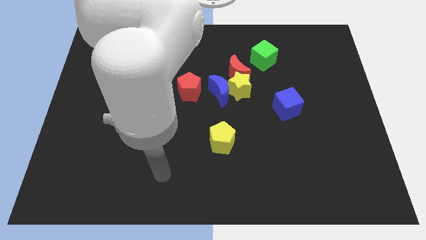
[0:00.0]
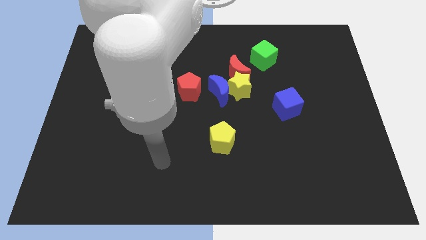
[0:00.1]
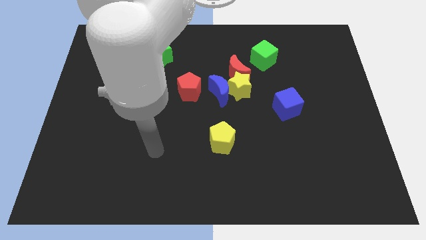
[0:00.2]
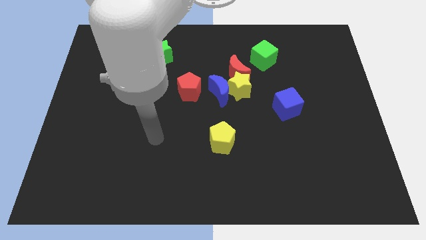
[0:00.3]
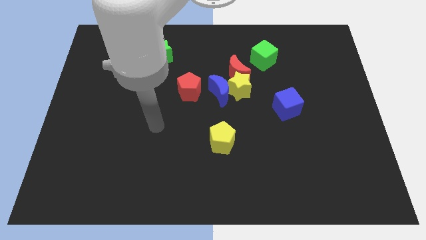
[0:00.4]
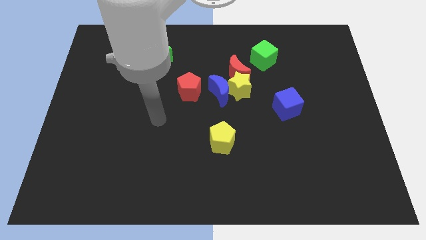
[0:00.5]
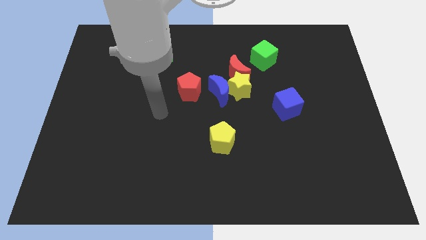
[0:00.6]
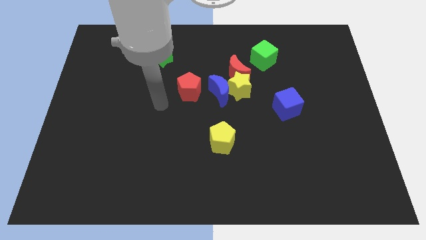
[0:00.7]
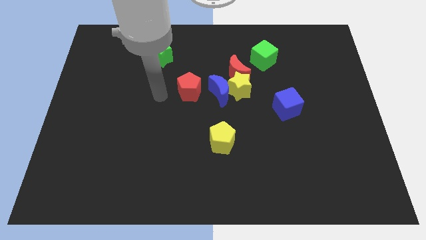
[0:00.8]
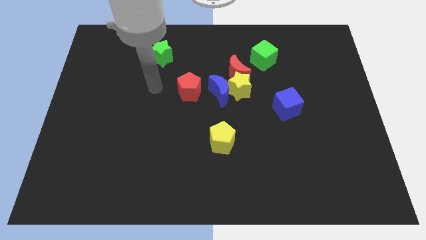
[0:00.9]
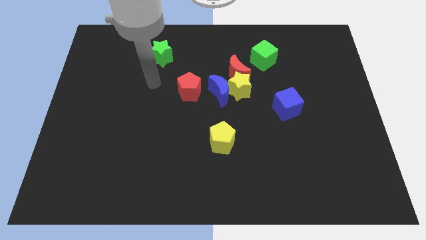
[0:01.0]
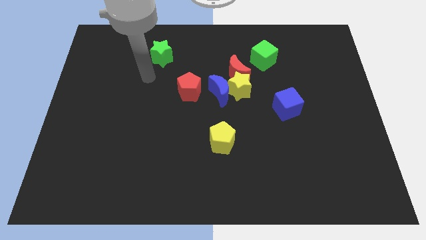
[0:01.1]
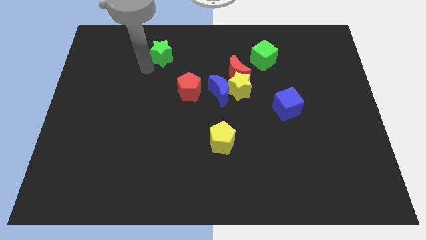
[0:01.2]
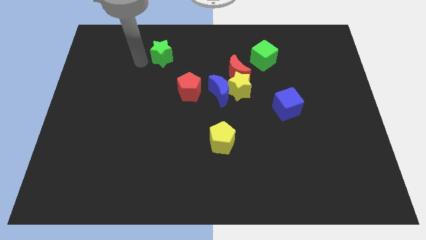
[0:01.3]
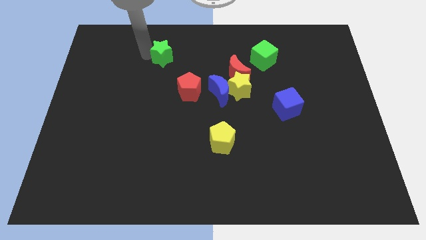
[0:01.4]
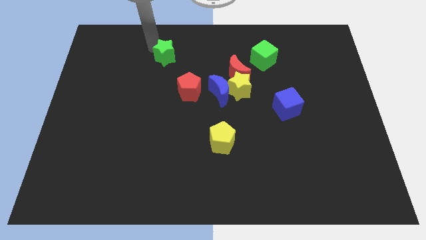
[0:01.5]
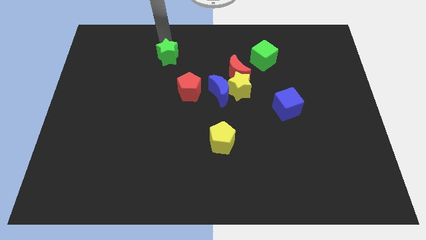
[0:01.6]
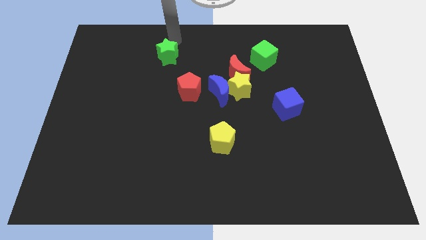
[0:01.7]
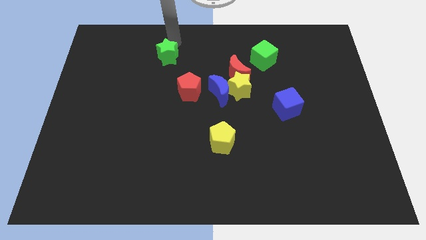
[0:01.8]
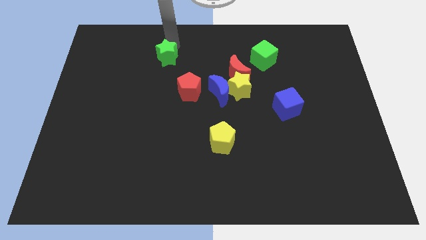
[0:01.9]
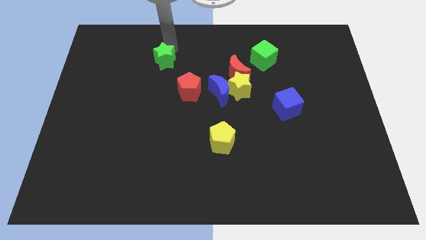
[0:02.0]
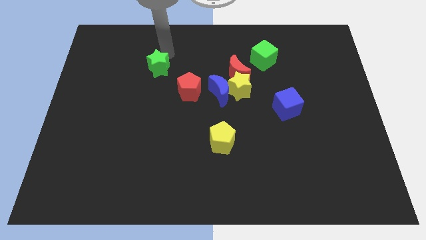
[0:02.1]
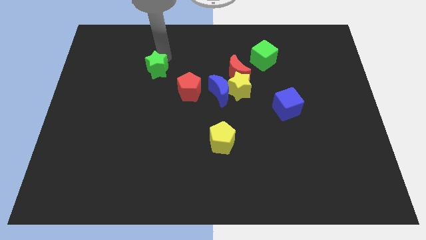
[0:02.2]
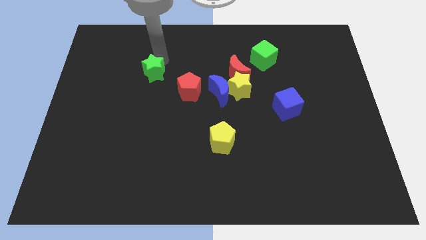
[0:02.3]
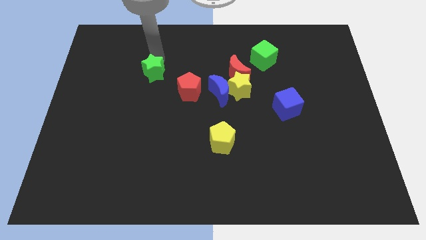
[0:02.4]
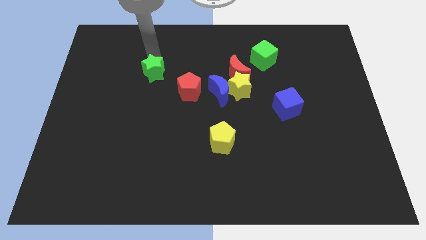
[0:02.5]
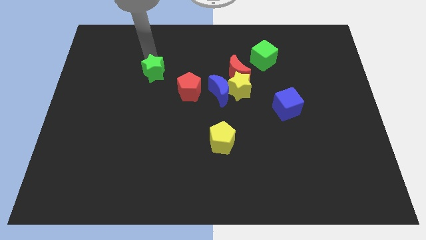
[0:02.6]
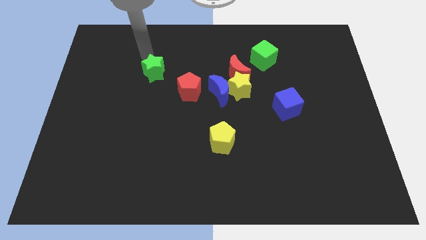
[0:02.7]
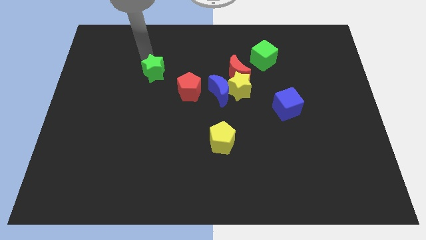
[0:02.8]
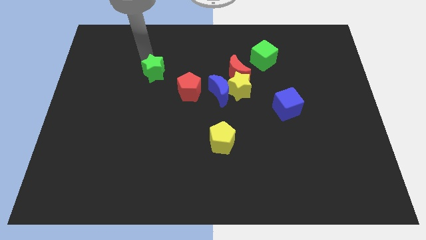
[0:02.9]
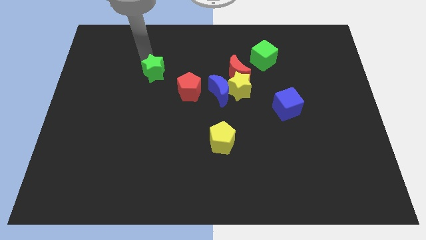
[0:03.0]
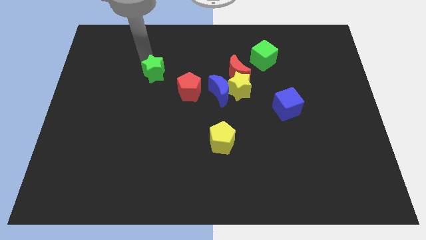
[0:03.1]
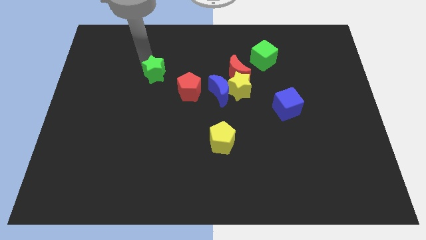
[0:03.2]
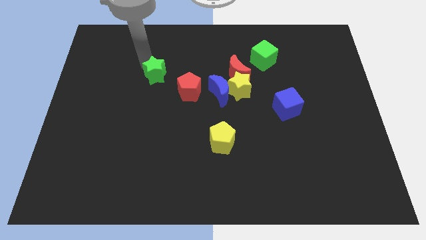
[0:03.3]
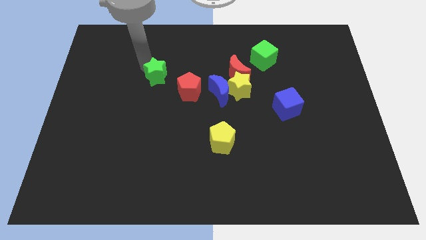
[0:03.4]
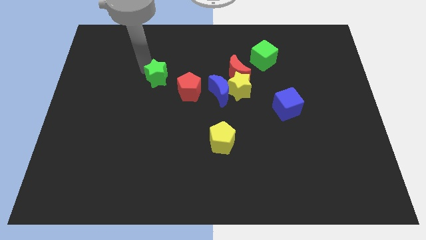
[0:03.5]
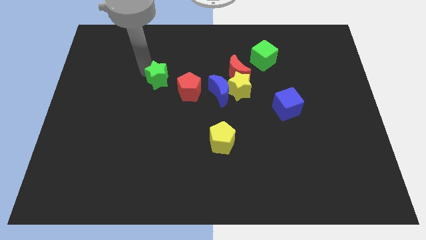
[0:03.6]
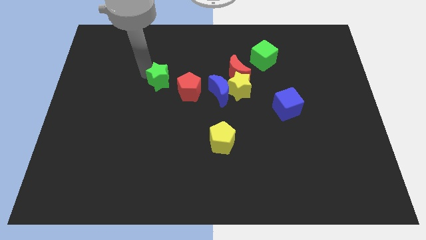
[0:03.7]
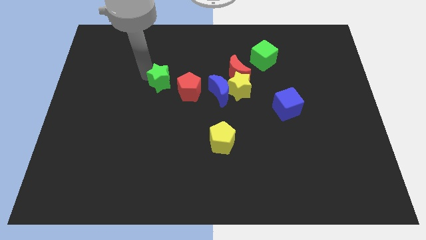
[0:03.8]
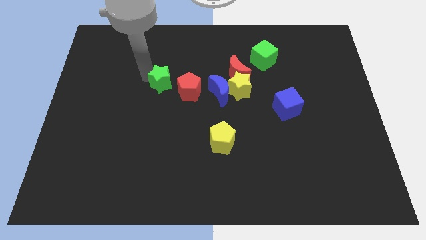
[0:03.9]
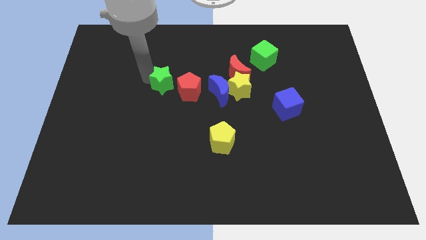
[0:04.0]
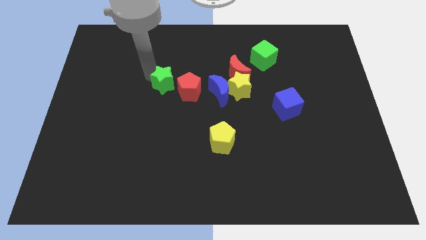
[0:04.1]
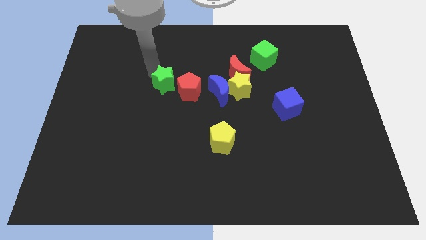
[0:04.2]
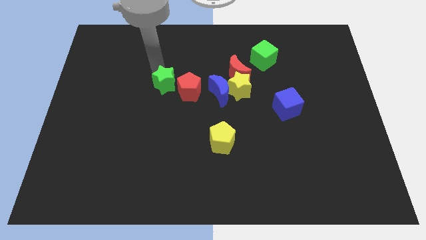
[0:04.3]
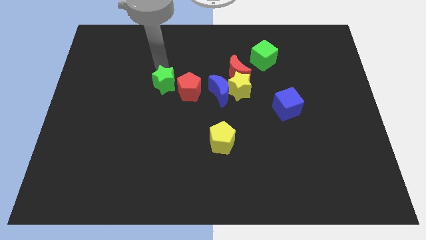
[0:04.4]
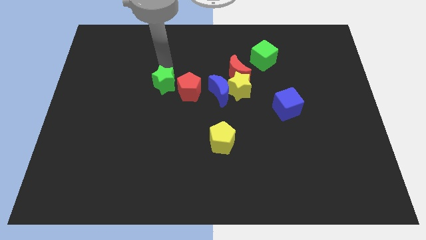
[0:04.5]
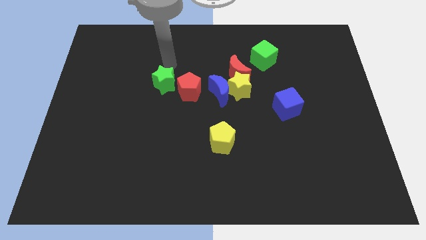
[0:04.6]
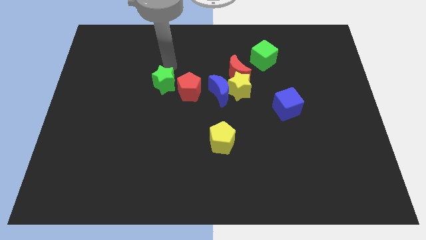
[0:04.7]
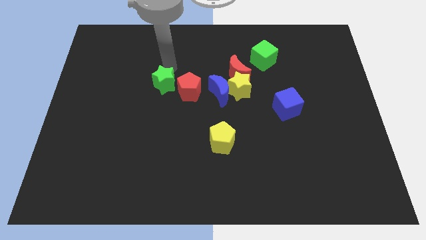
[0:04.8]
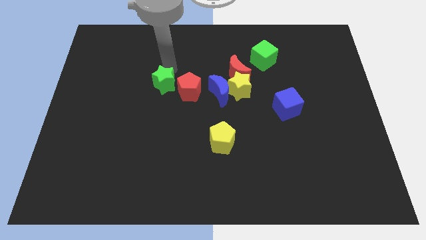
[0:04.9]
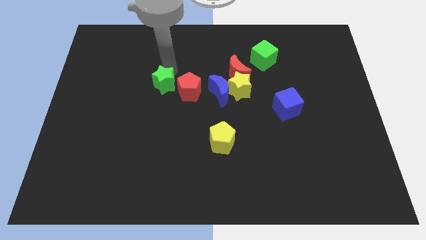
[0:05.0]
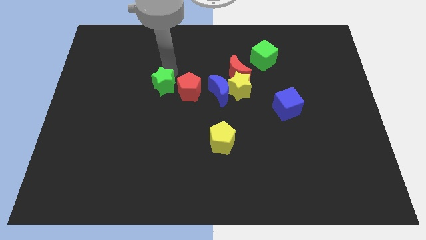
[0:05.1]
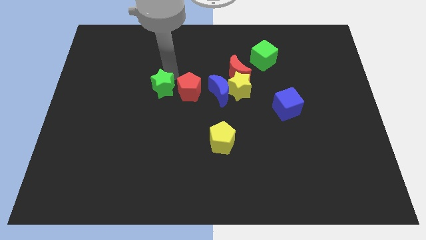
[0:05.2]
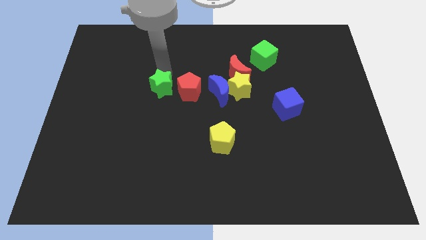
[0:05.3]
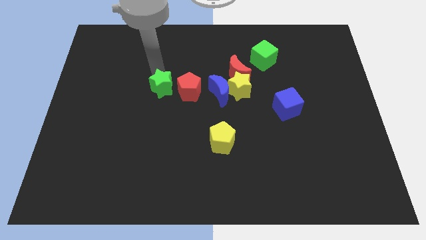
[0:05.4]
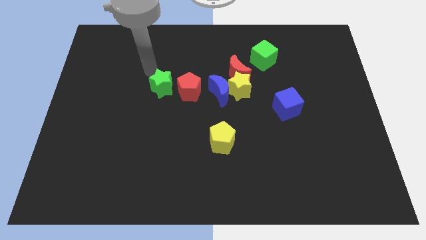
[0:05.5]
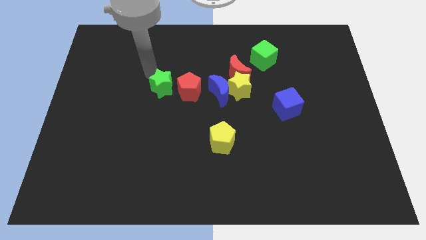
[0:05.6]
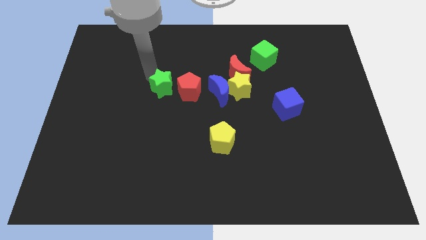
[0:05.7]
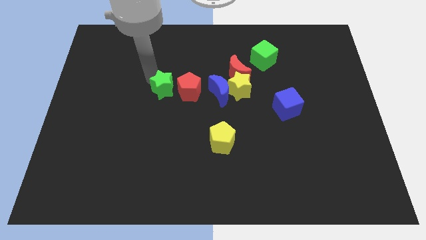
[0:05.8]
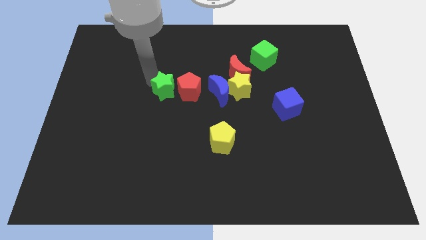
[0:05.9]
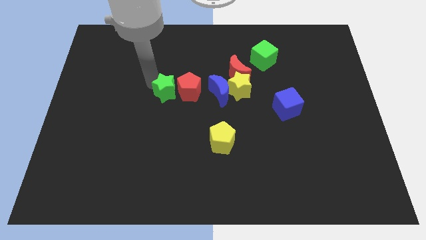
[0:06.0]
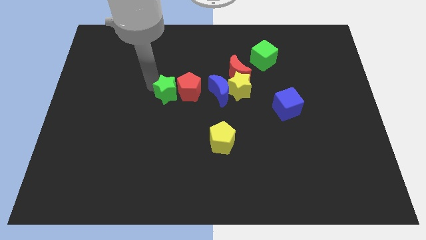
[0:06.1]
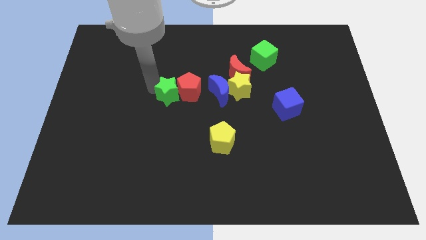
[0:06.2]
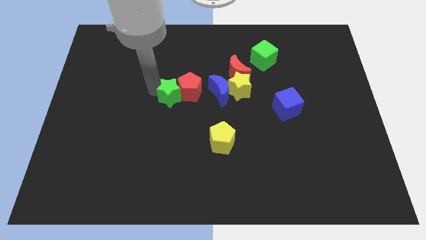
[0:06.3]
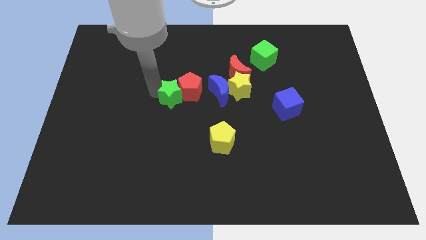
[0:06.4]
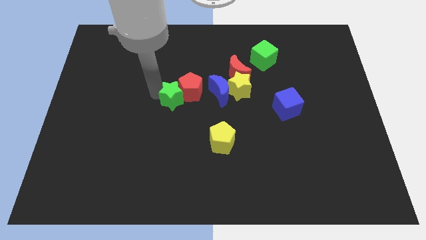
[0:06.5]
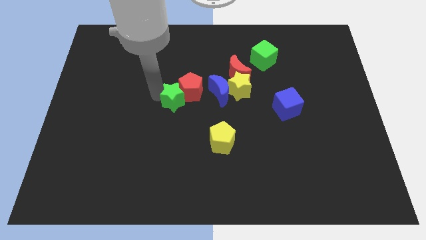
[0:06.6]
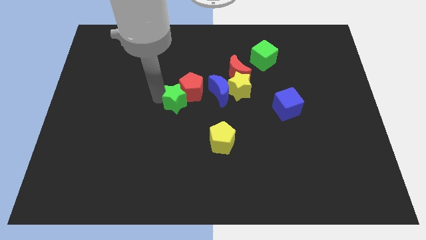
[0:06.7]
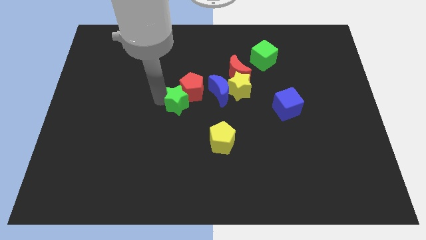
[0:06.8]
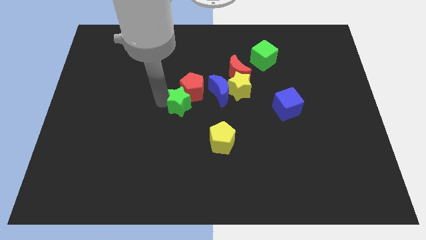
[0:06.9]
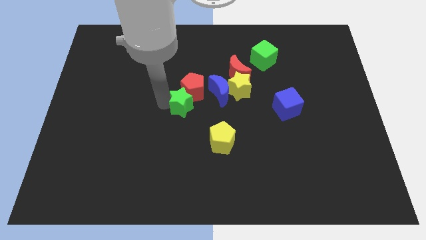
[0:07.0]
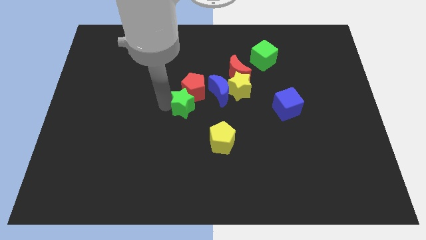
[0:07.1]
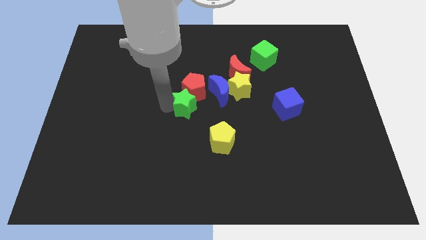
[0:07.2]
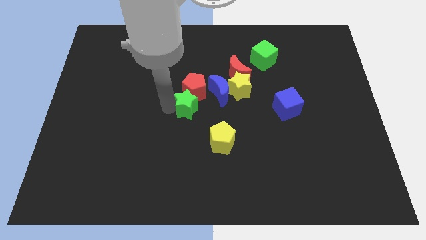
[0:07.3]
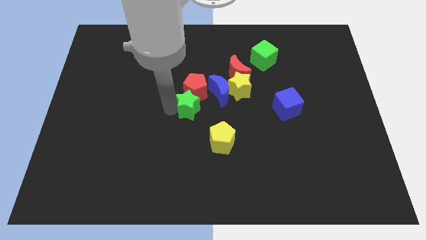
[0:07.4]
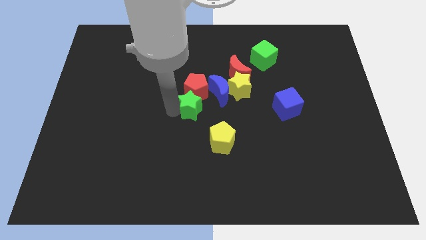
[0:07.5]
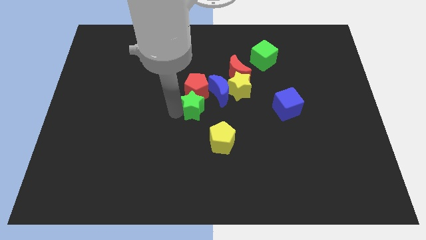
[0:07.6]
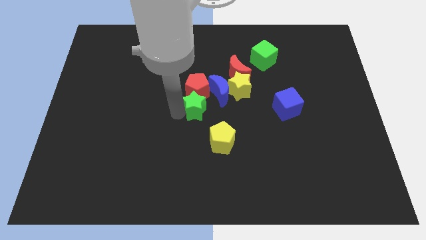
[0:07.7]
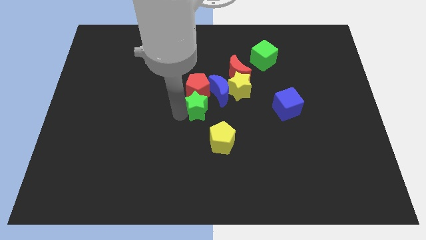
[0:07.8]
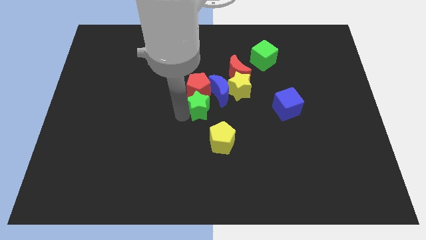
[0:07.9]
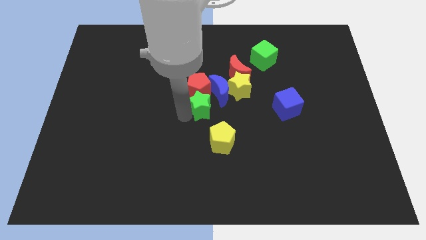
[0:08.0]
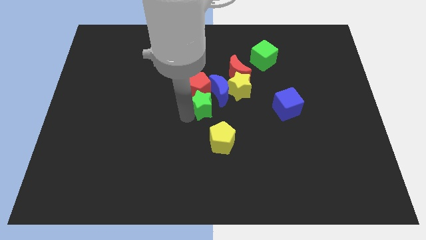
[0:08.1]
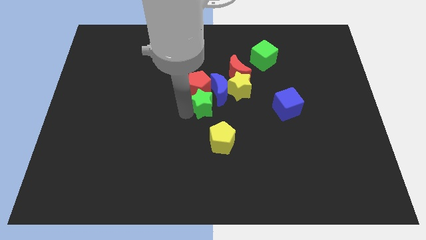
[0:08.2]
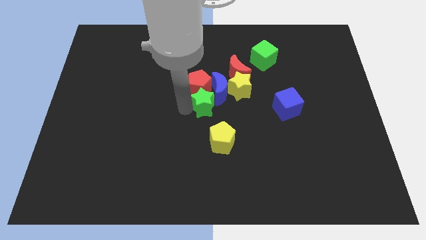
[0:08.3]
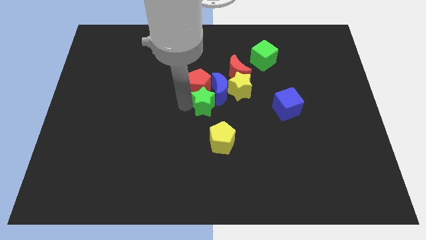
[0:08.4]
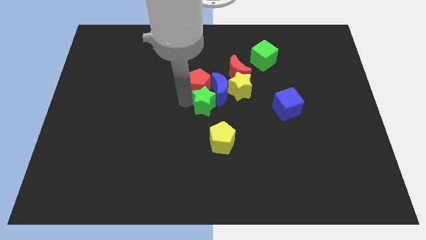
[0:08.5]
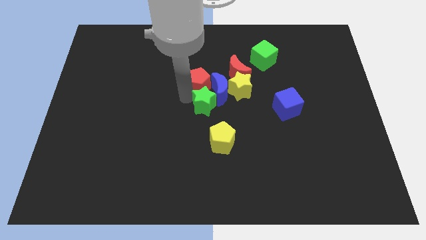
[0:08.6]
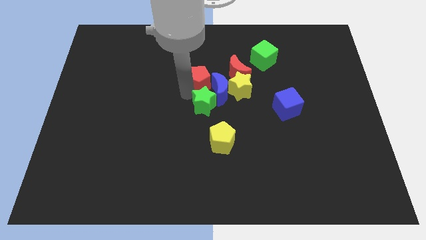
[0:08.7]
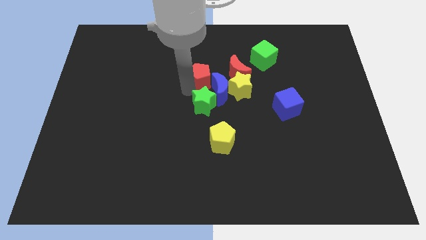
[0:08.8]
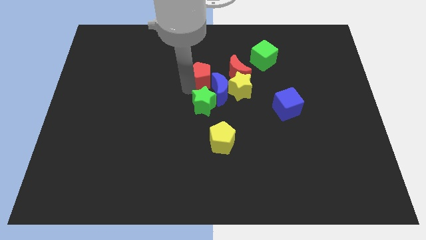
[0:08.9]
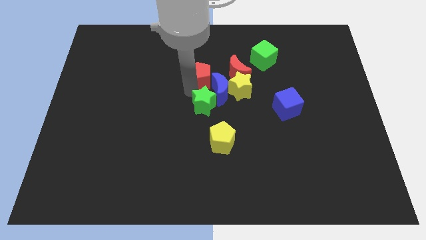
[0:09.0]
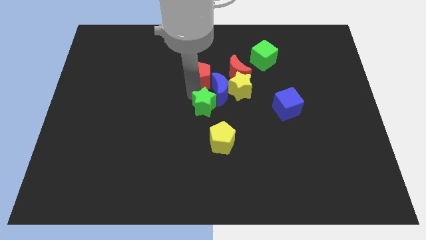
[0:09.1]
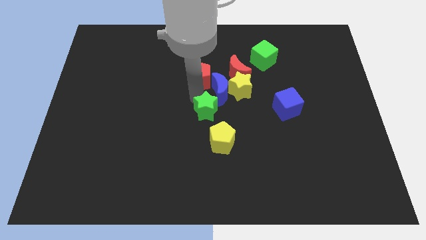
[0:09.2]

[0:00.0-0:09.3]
move the green star downwards and then right
